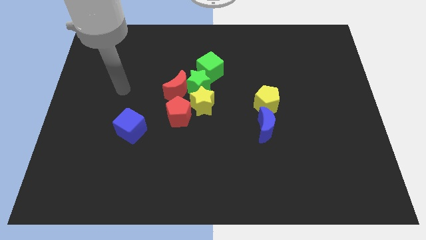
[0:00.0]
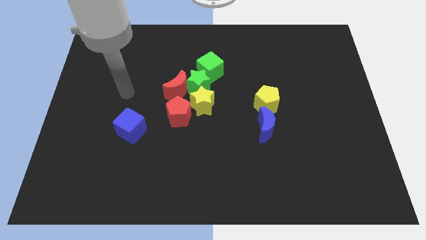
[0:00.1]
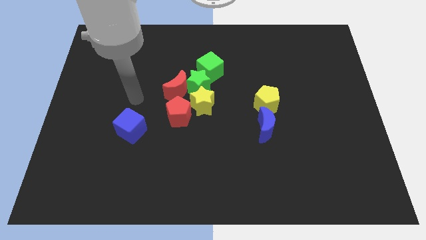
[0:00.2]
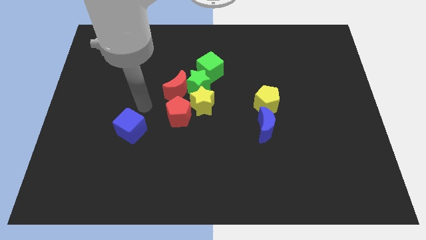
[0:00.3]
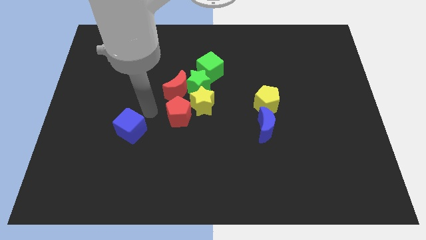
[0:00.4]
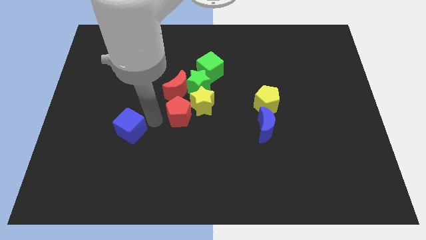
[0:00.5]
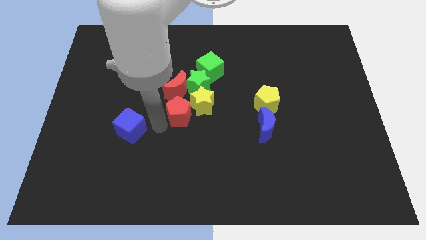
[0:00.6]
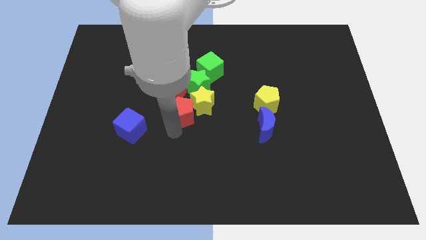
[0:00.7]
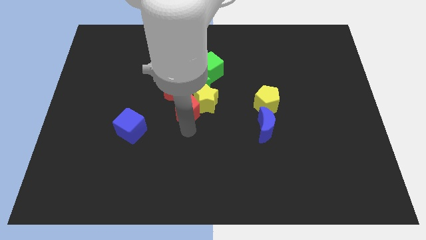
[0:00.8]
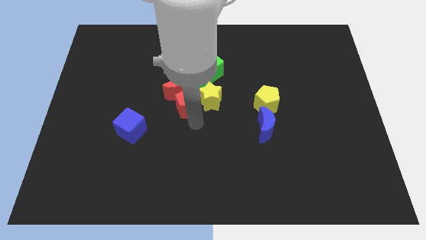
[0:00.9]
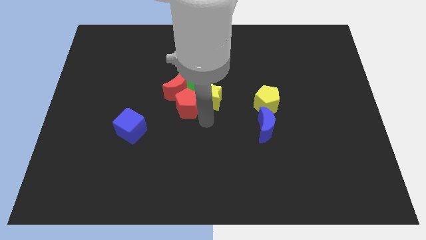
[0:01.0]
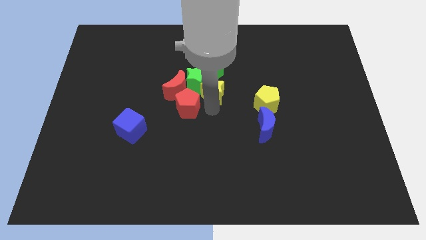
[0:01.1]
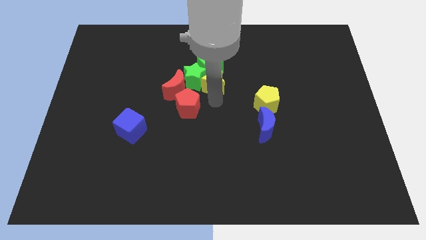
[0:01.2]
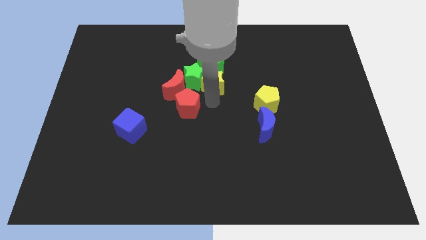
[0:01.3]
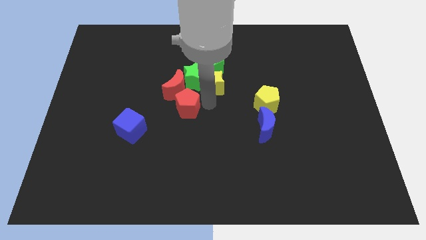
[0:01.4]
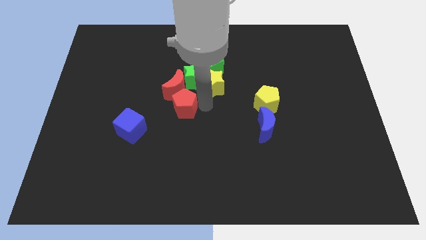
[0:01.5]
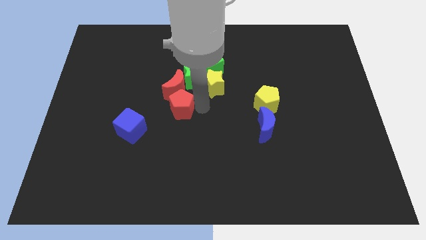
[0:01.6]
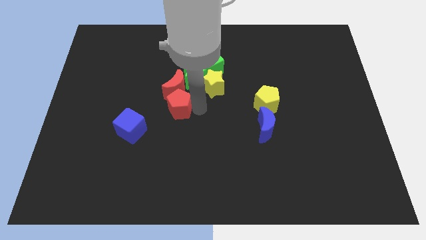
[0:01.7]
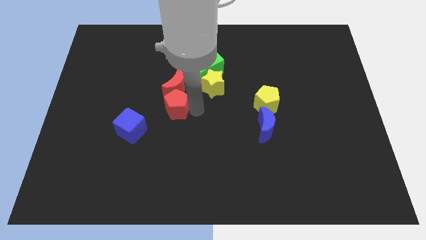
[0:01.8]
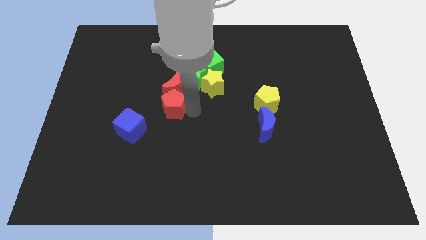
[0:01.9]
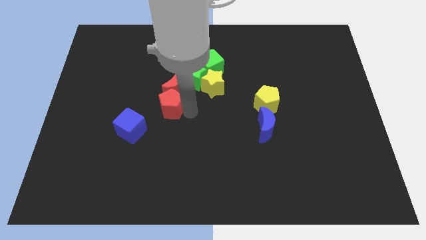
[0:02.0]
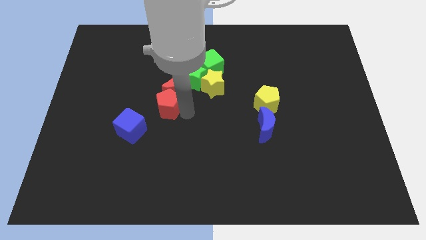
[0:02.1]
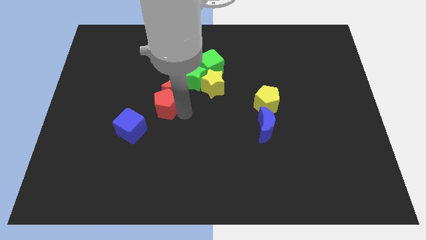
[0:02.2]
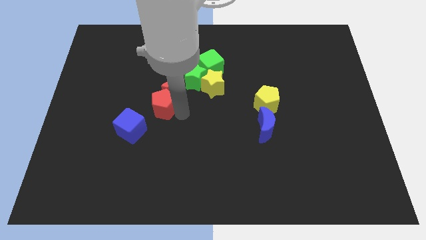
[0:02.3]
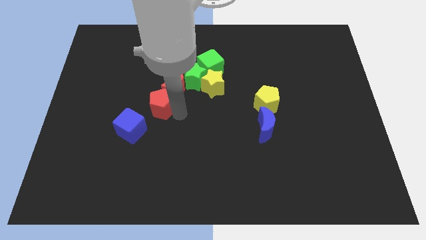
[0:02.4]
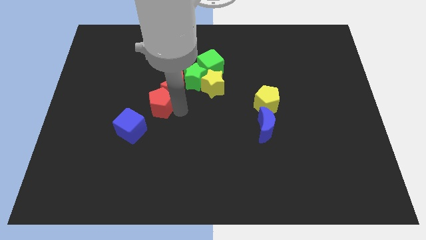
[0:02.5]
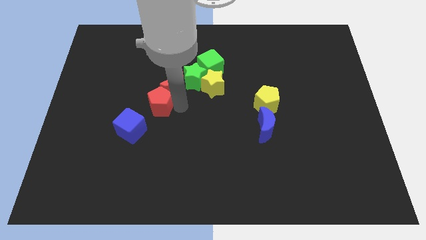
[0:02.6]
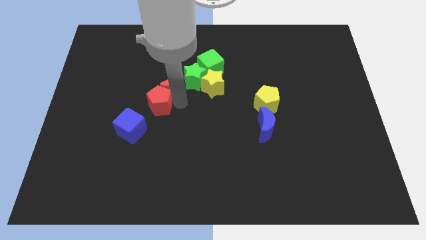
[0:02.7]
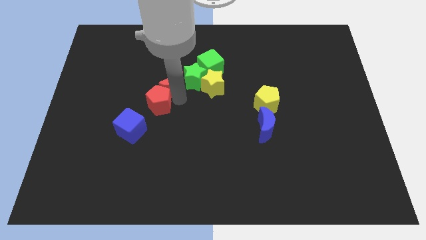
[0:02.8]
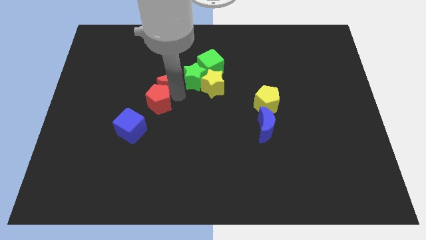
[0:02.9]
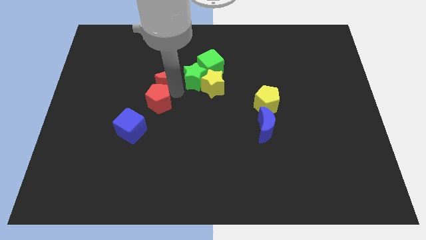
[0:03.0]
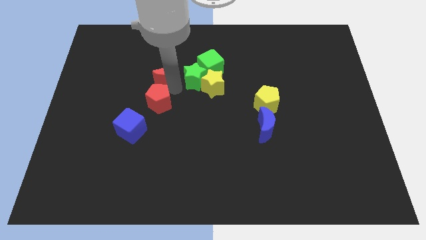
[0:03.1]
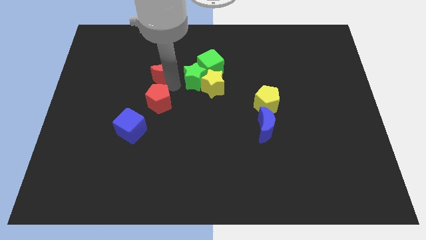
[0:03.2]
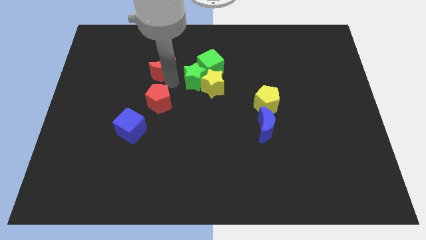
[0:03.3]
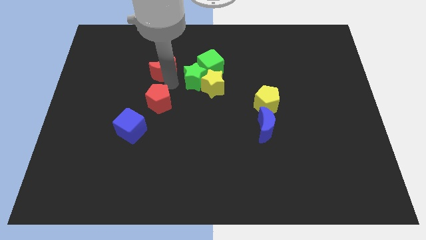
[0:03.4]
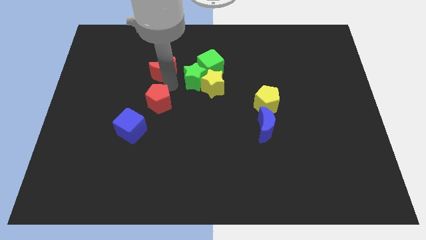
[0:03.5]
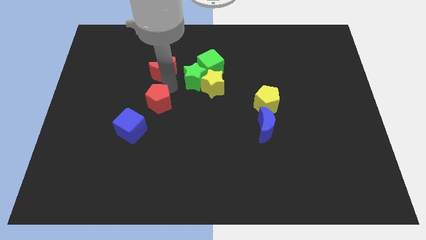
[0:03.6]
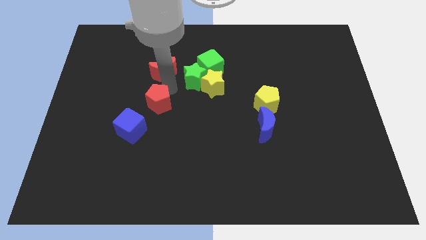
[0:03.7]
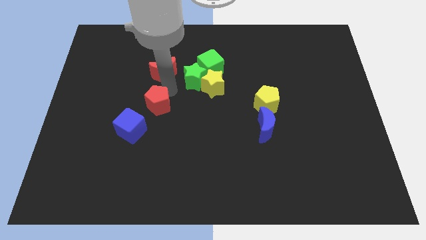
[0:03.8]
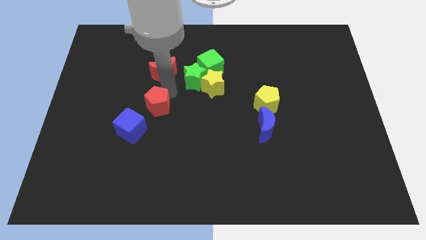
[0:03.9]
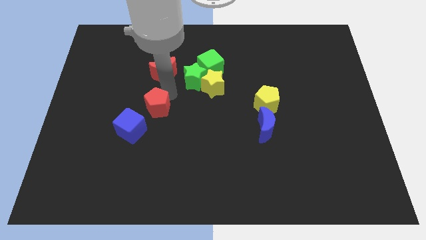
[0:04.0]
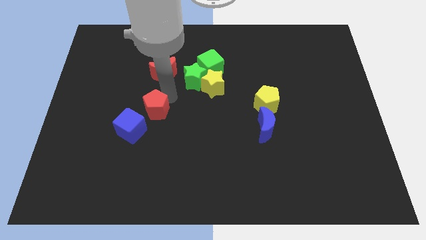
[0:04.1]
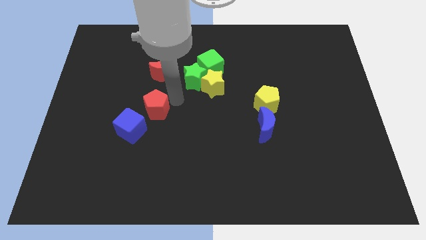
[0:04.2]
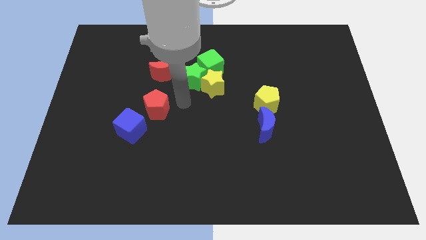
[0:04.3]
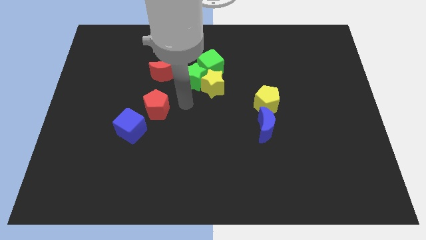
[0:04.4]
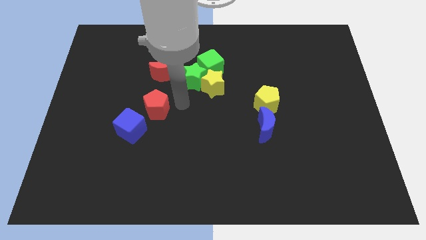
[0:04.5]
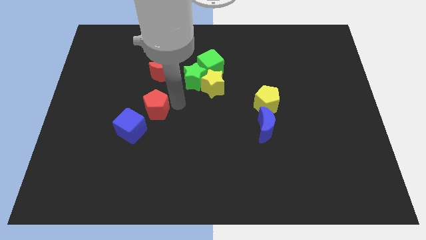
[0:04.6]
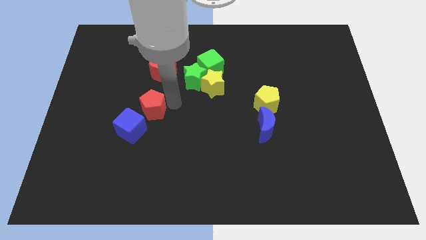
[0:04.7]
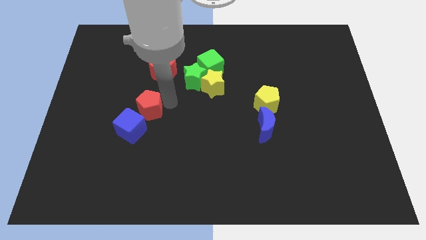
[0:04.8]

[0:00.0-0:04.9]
slide the red pentagon somewhat to the left

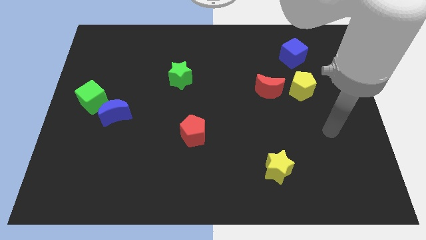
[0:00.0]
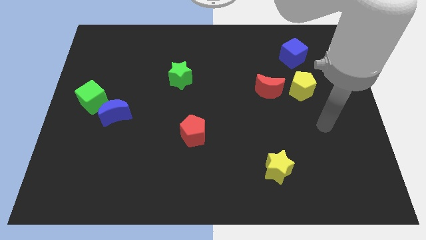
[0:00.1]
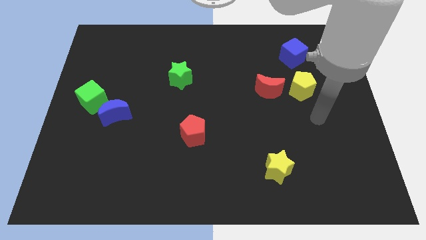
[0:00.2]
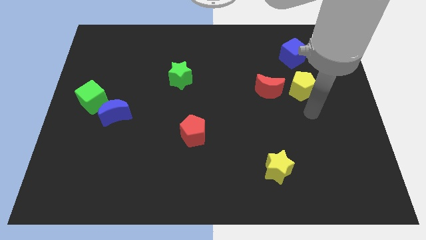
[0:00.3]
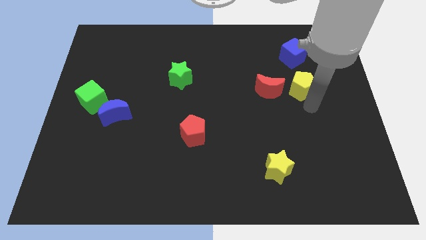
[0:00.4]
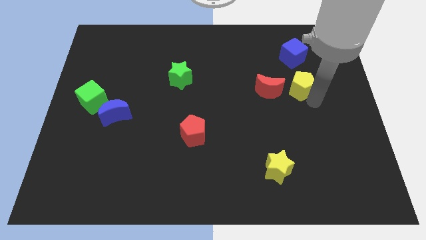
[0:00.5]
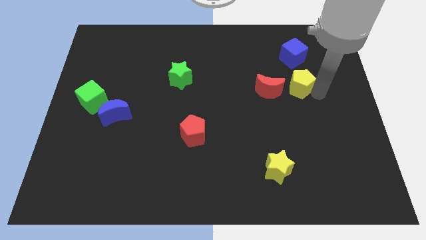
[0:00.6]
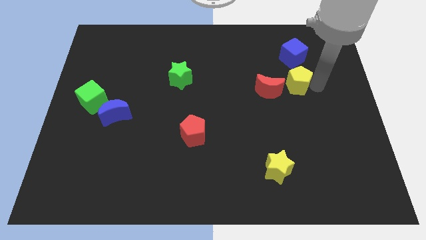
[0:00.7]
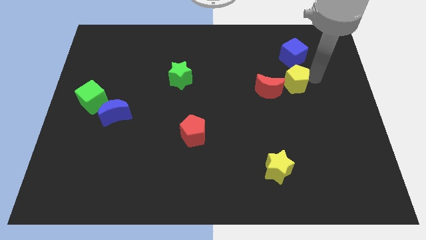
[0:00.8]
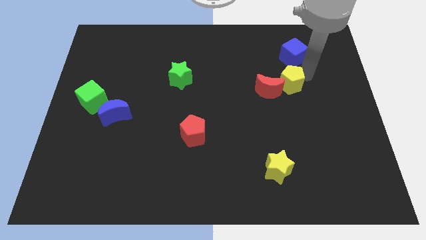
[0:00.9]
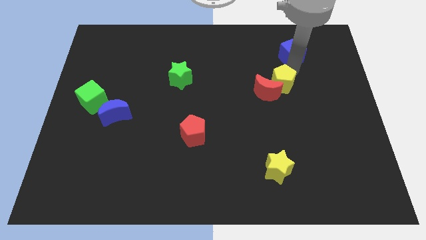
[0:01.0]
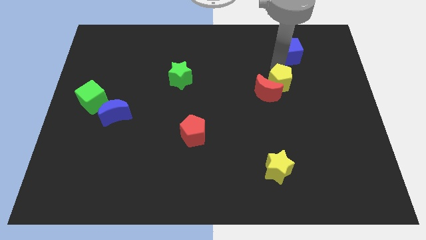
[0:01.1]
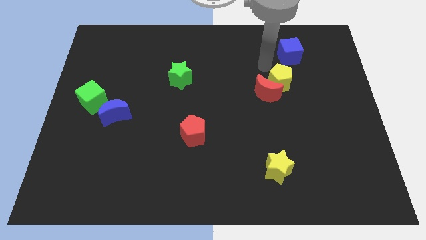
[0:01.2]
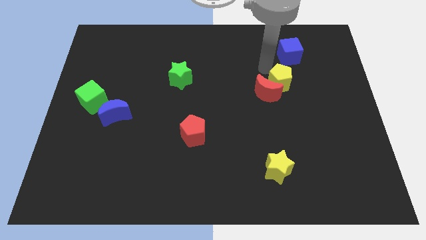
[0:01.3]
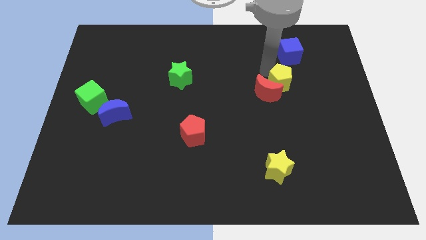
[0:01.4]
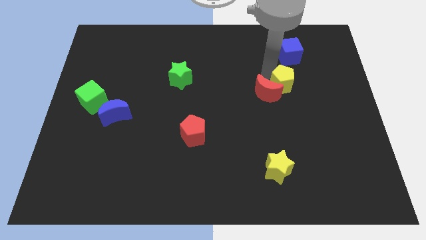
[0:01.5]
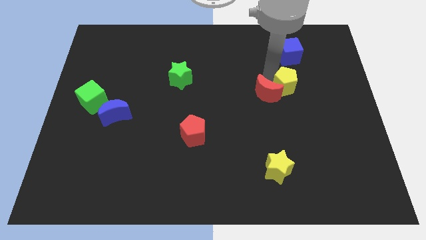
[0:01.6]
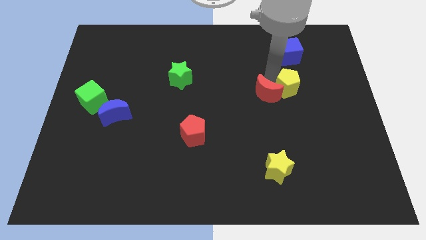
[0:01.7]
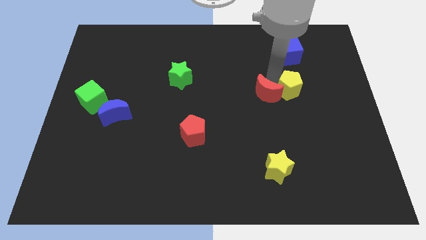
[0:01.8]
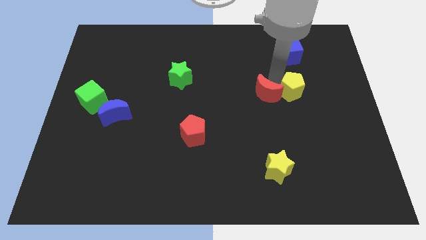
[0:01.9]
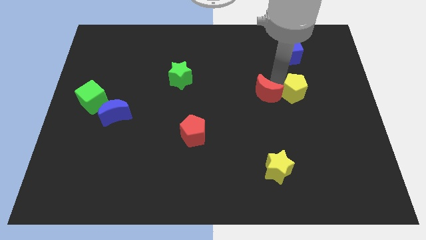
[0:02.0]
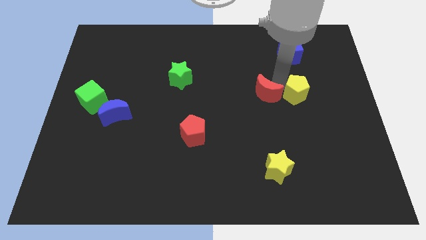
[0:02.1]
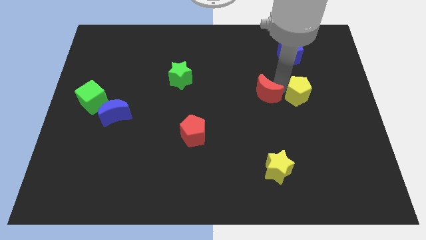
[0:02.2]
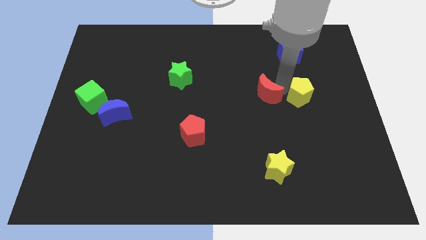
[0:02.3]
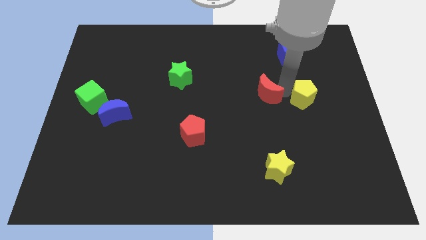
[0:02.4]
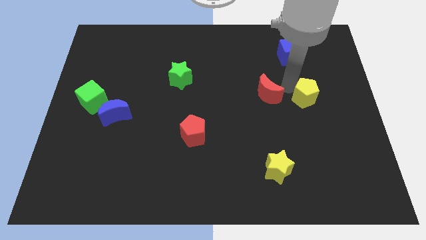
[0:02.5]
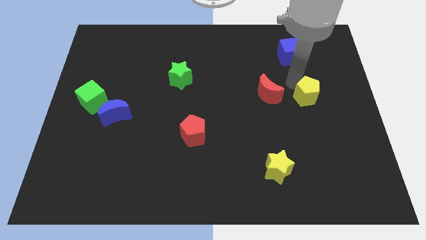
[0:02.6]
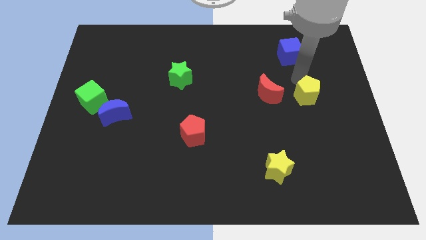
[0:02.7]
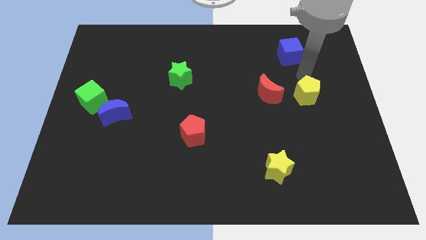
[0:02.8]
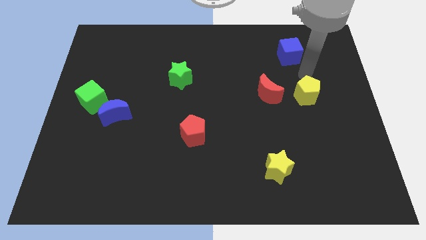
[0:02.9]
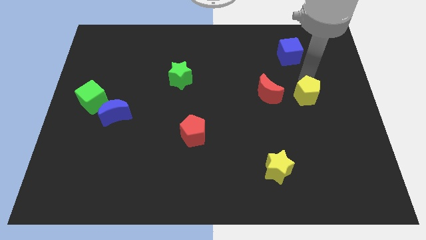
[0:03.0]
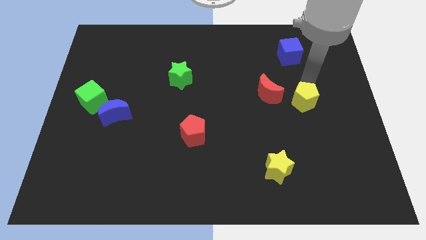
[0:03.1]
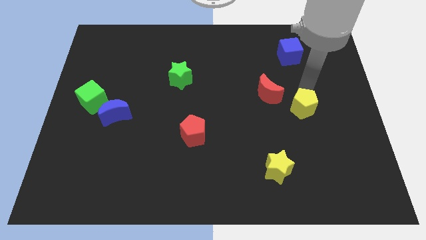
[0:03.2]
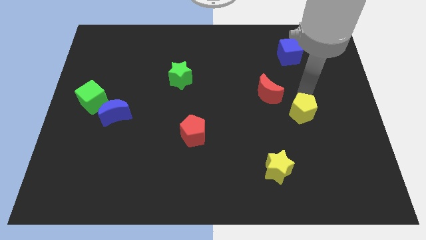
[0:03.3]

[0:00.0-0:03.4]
push the yellow pentagon slightly down
